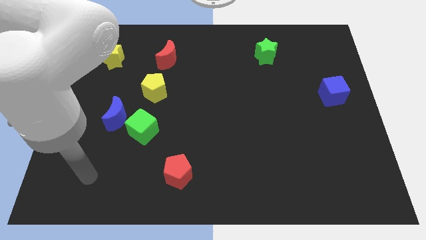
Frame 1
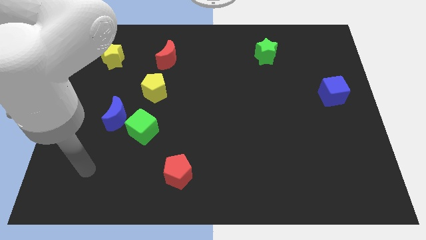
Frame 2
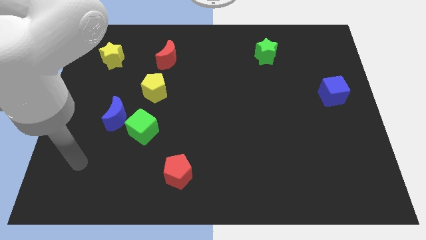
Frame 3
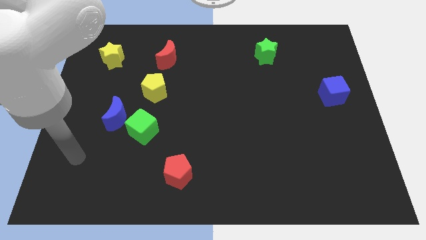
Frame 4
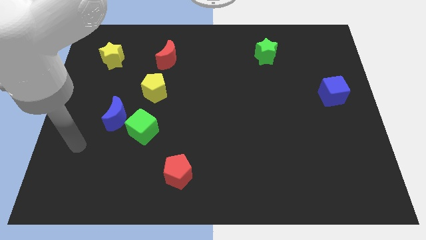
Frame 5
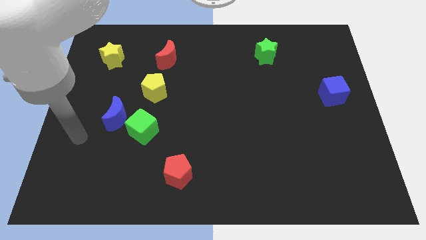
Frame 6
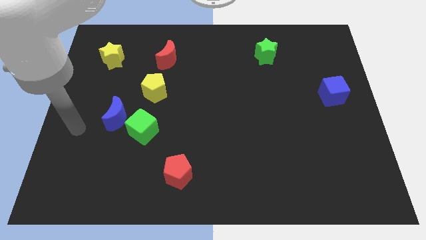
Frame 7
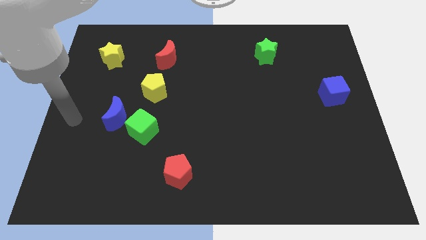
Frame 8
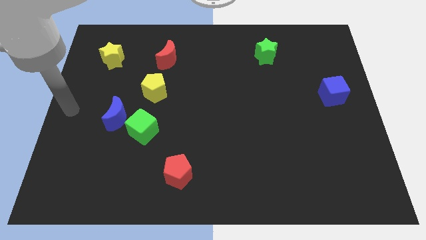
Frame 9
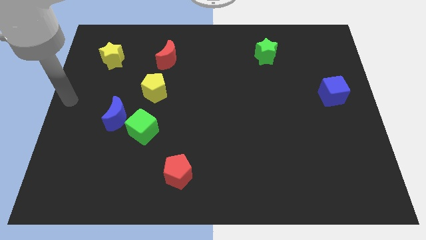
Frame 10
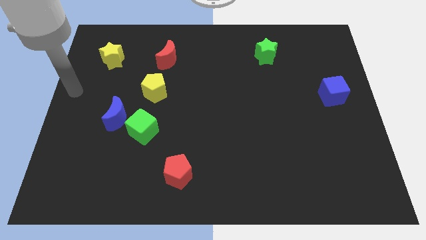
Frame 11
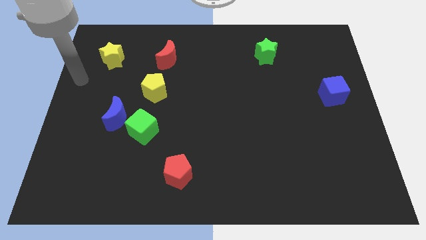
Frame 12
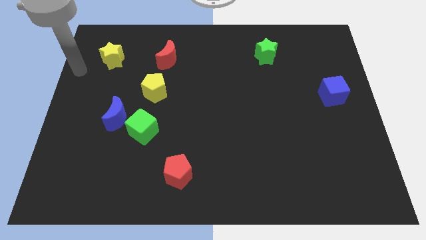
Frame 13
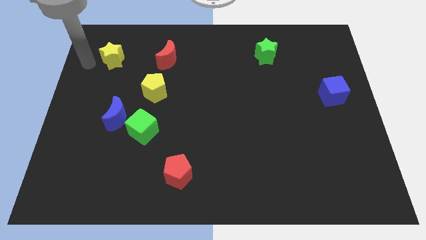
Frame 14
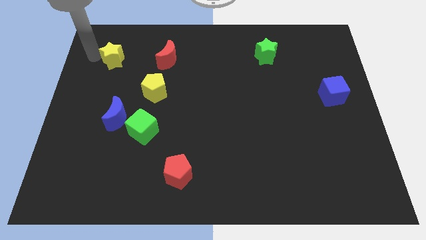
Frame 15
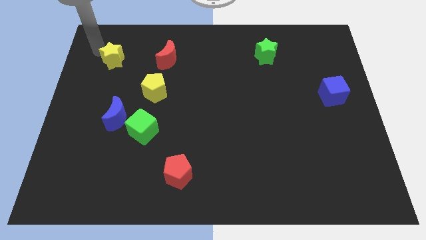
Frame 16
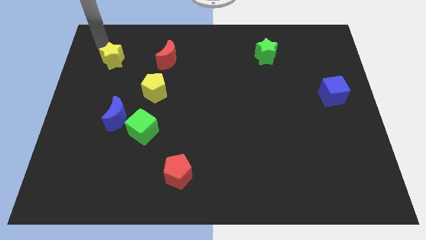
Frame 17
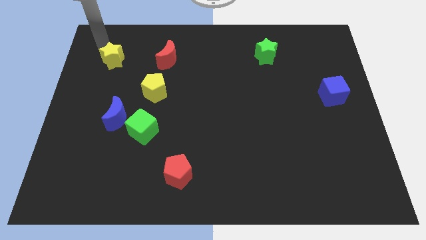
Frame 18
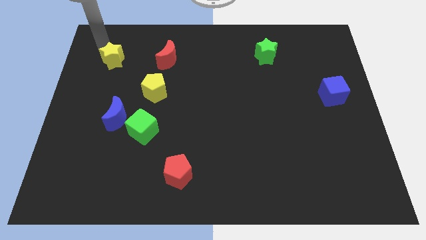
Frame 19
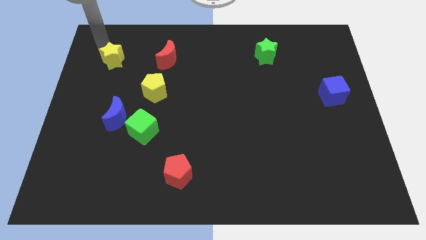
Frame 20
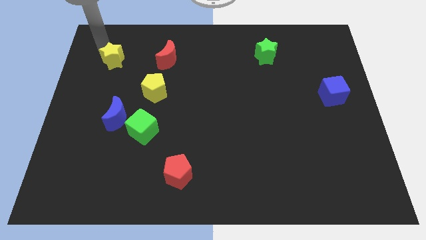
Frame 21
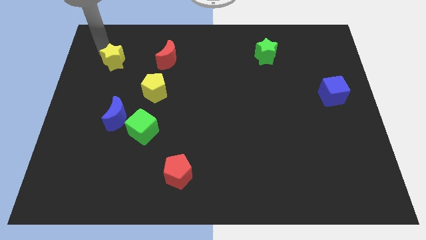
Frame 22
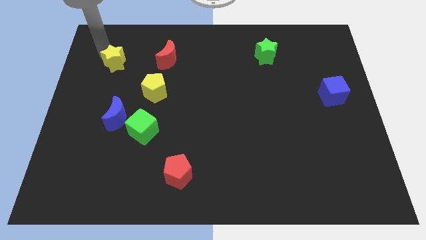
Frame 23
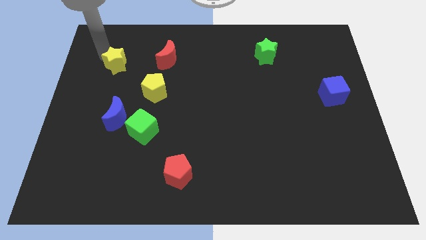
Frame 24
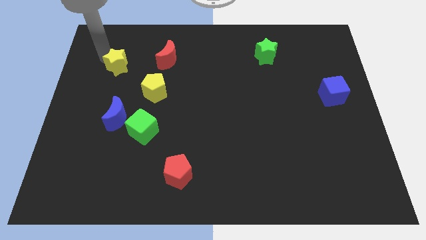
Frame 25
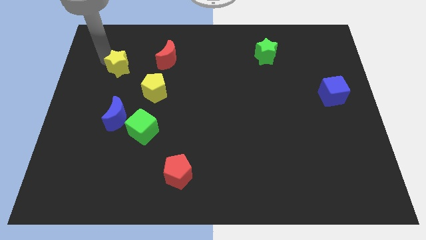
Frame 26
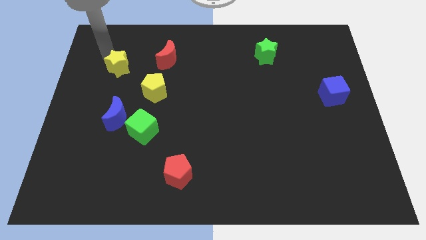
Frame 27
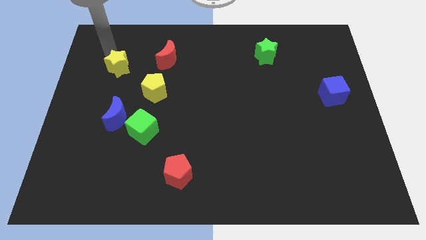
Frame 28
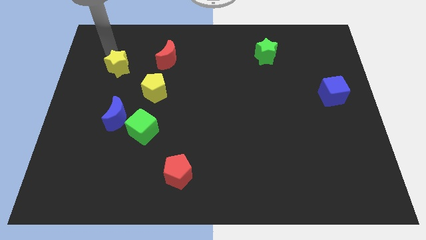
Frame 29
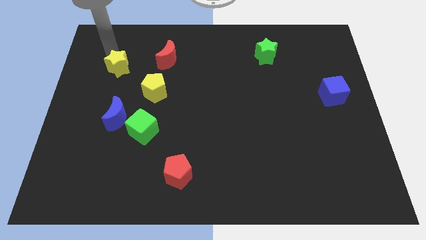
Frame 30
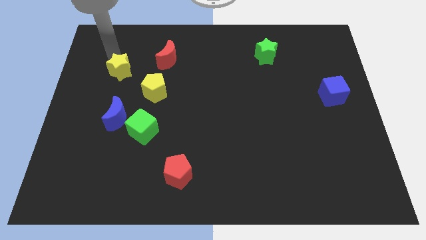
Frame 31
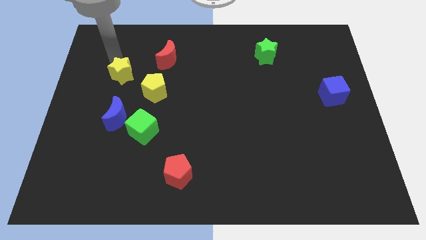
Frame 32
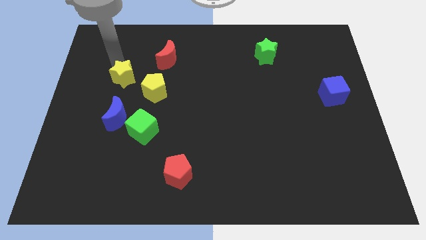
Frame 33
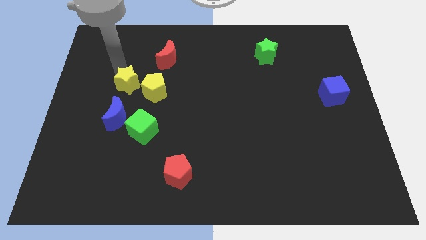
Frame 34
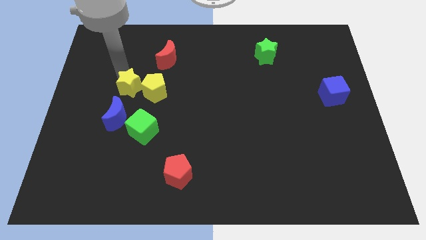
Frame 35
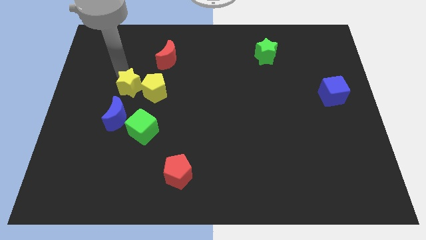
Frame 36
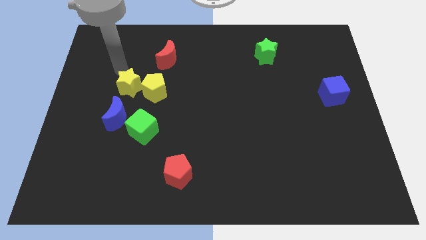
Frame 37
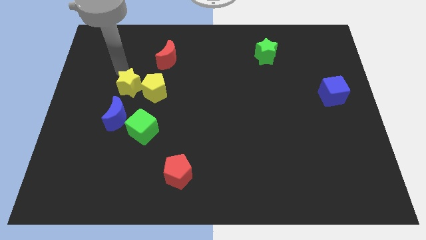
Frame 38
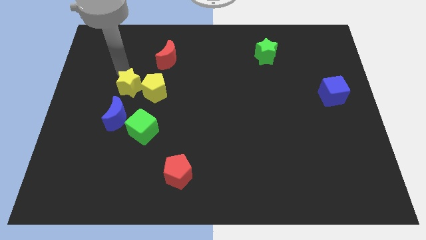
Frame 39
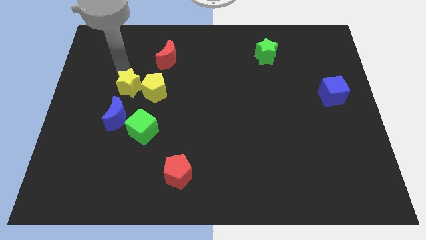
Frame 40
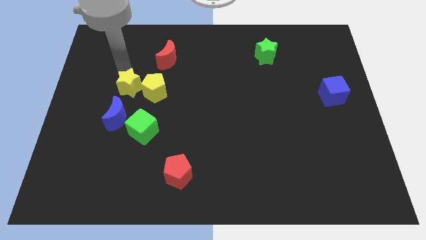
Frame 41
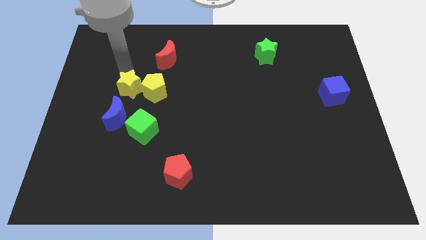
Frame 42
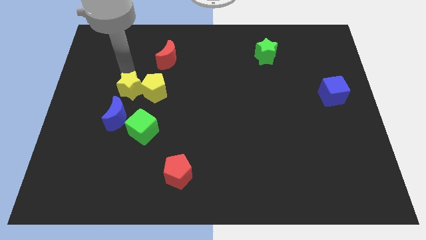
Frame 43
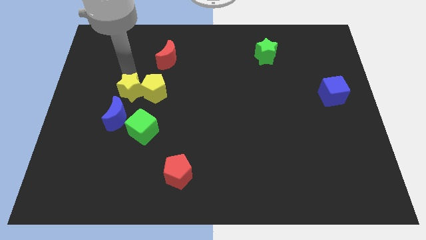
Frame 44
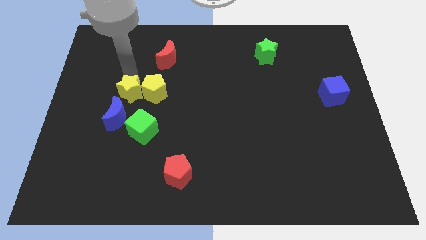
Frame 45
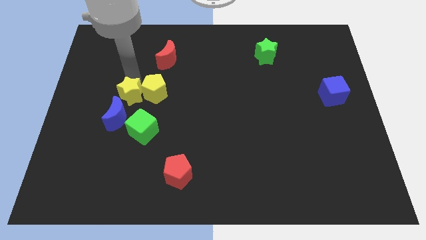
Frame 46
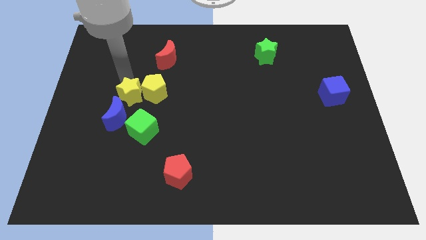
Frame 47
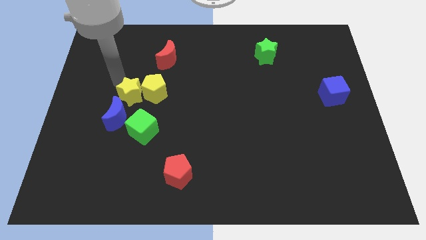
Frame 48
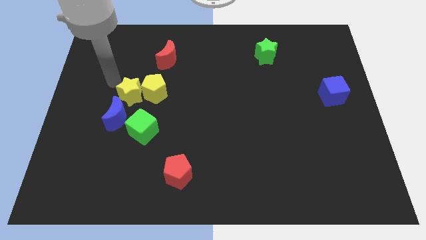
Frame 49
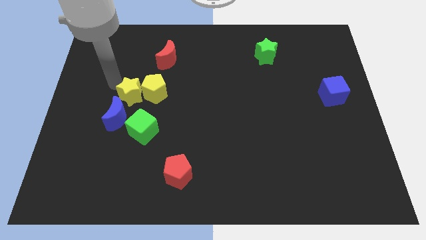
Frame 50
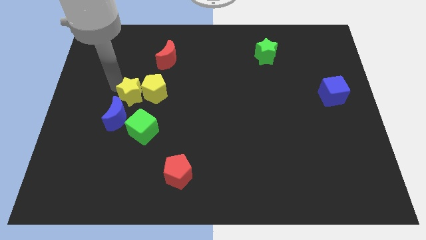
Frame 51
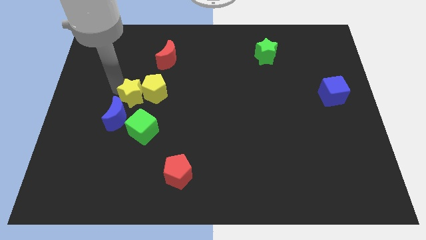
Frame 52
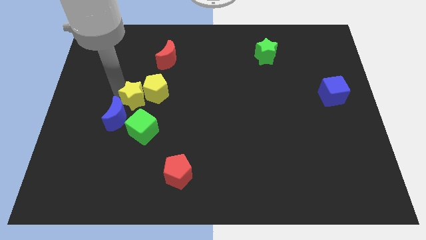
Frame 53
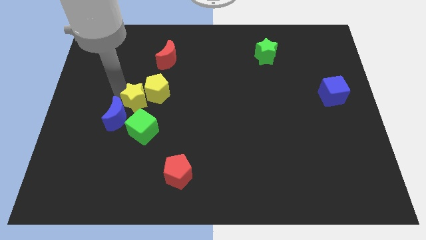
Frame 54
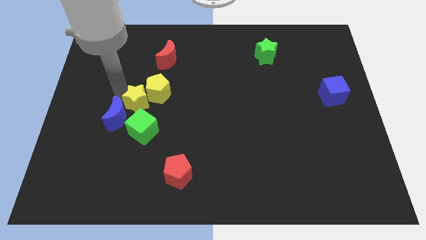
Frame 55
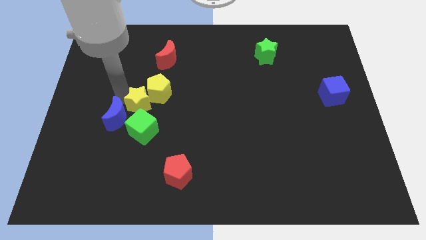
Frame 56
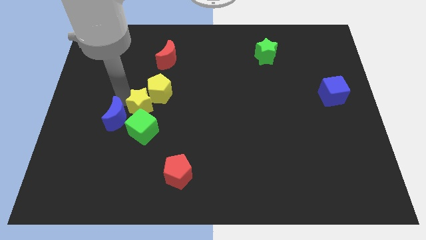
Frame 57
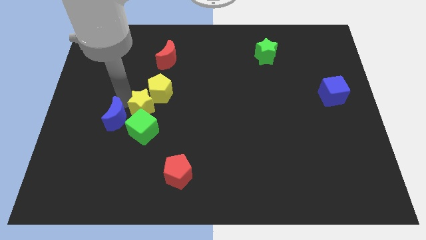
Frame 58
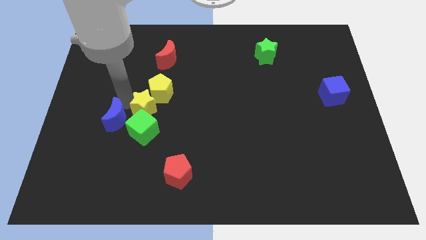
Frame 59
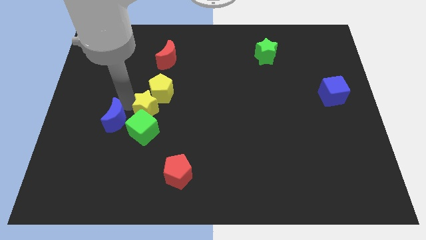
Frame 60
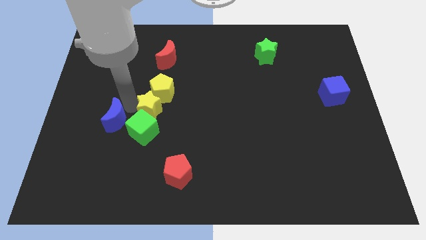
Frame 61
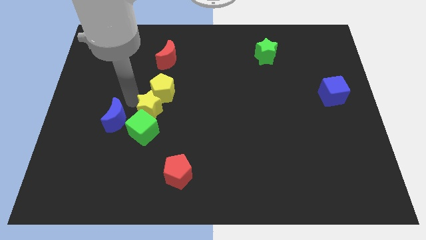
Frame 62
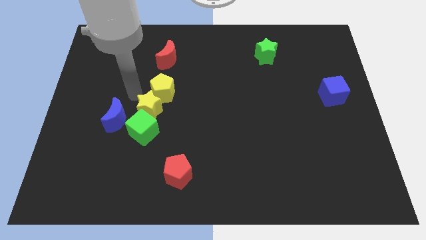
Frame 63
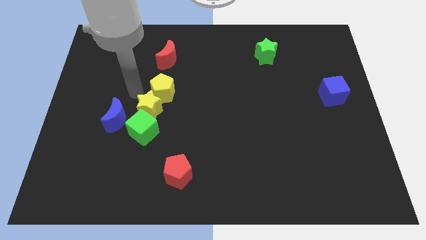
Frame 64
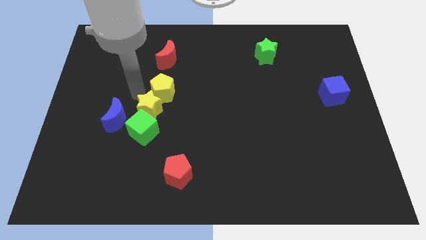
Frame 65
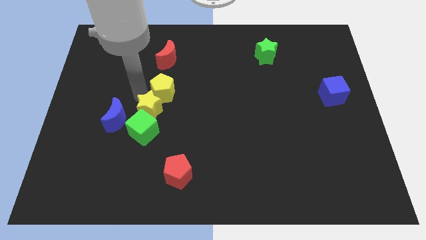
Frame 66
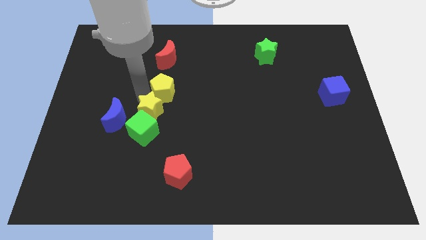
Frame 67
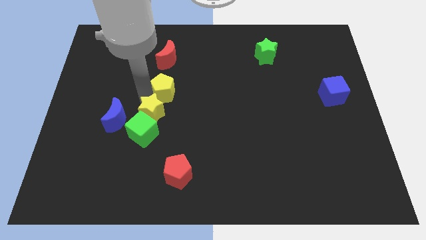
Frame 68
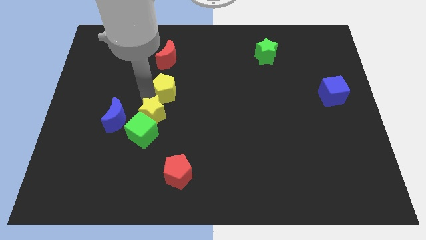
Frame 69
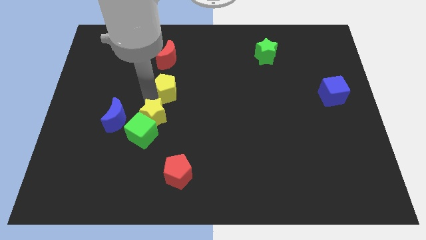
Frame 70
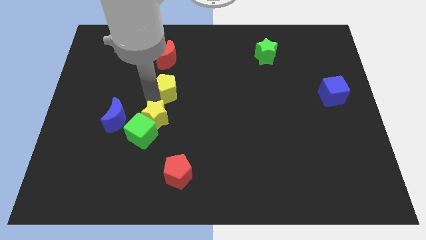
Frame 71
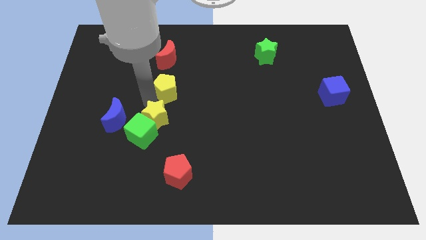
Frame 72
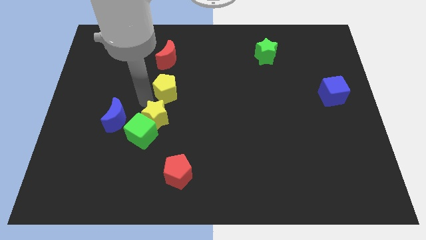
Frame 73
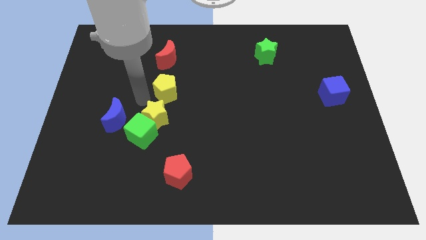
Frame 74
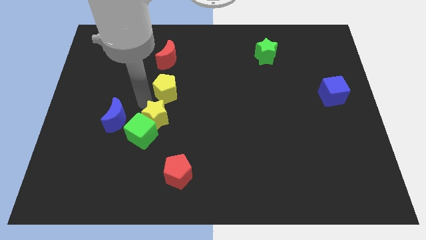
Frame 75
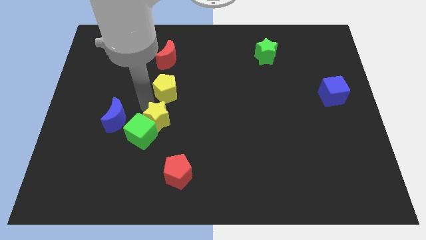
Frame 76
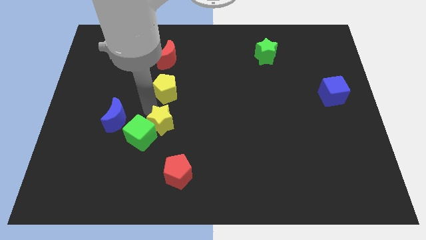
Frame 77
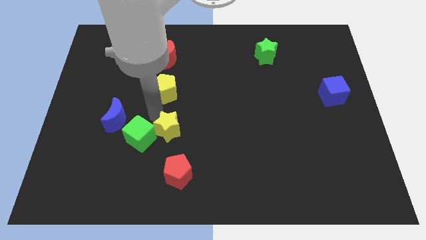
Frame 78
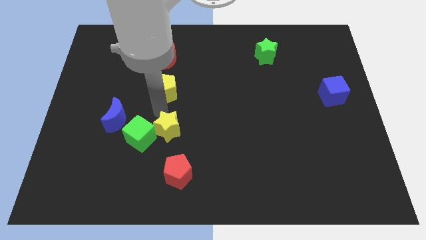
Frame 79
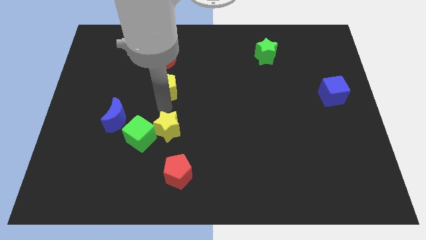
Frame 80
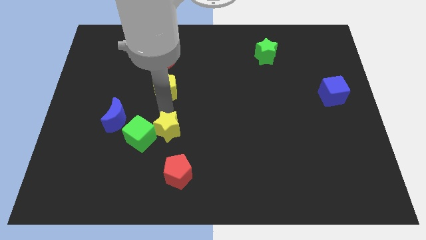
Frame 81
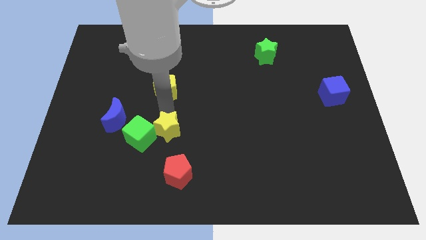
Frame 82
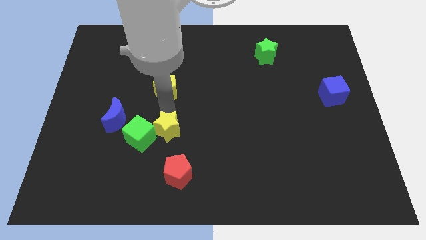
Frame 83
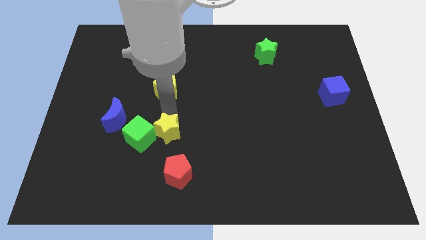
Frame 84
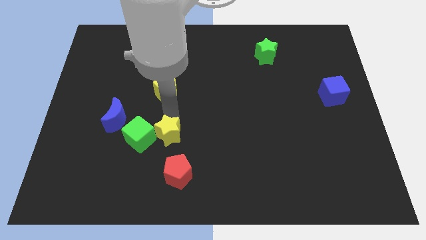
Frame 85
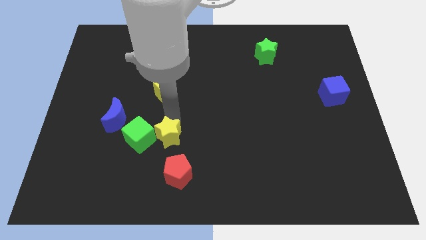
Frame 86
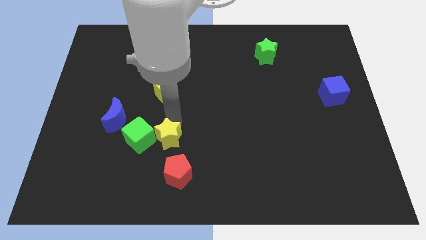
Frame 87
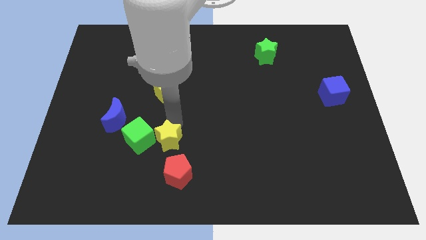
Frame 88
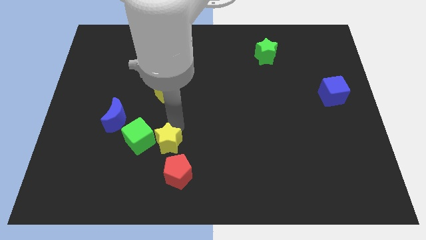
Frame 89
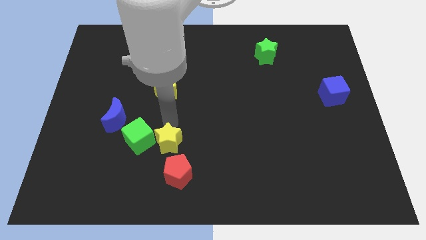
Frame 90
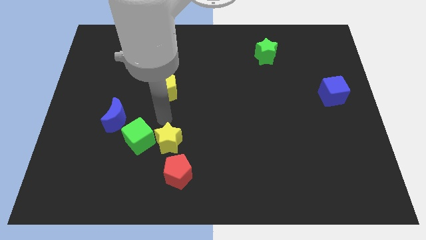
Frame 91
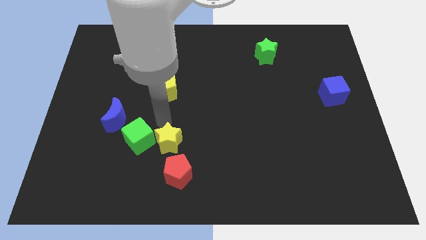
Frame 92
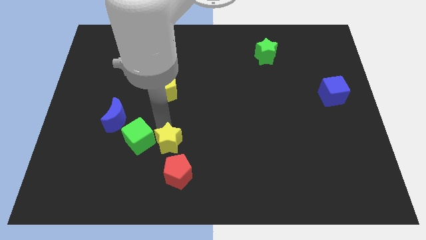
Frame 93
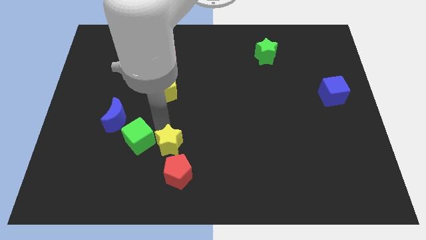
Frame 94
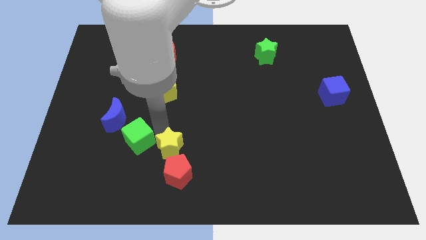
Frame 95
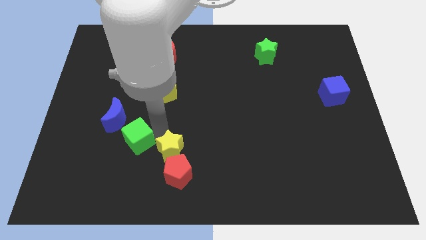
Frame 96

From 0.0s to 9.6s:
push the yellow star to the red pentagon
